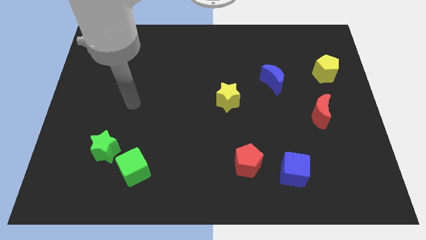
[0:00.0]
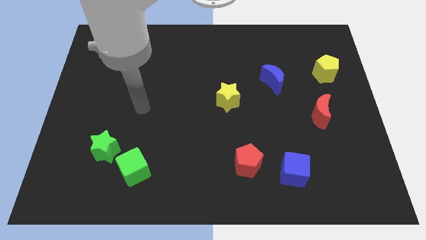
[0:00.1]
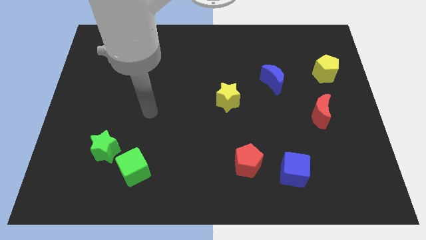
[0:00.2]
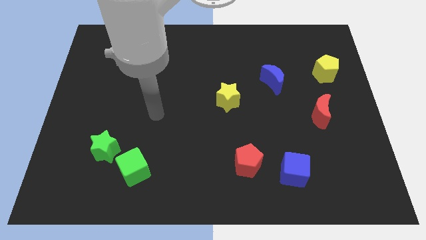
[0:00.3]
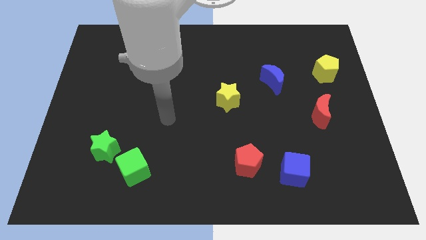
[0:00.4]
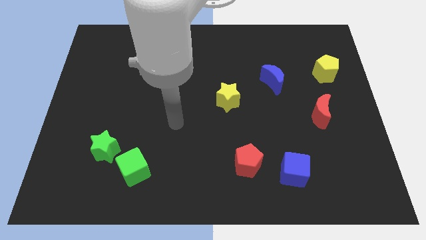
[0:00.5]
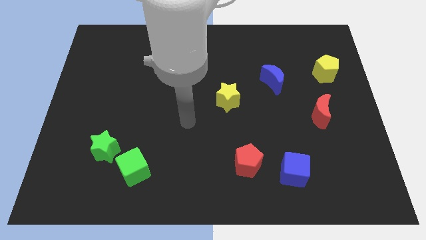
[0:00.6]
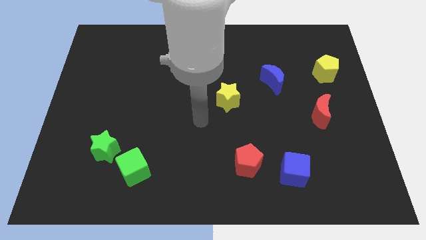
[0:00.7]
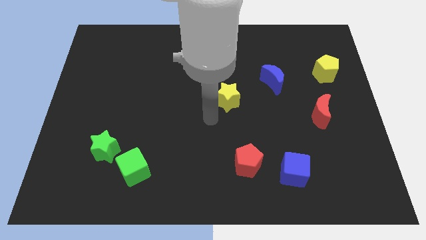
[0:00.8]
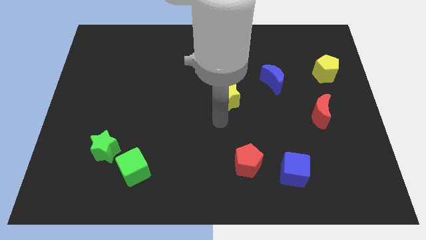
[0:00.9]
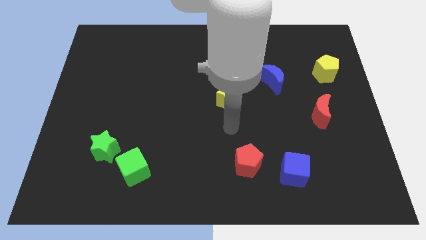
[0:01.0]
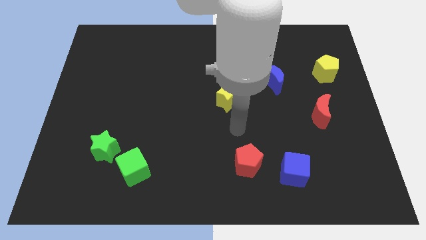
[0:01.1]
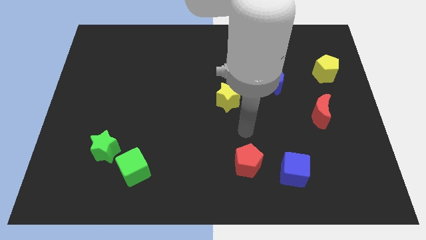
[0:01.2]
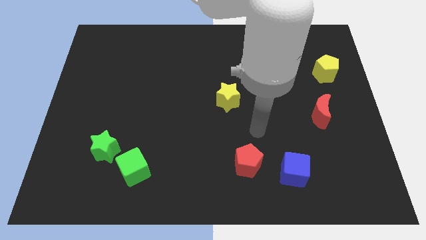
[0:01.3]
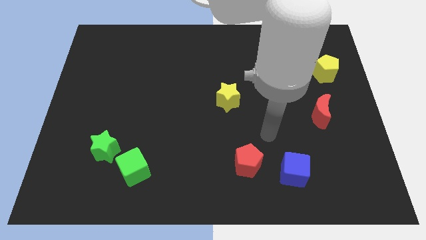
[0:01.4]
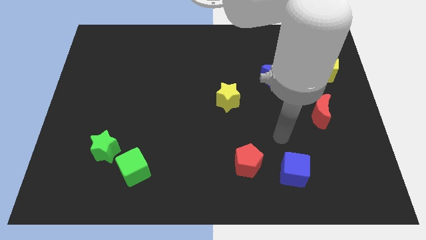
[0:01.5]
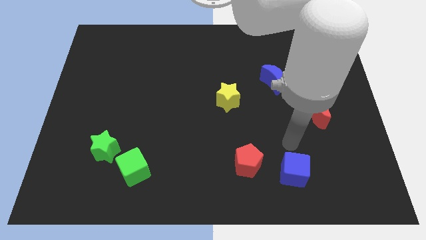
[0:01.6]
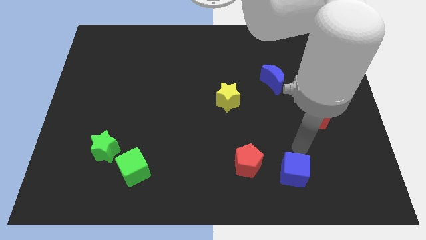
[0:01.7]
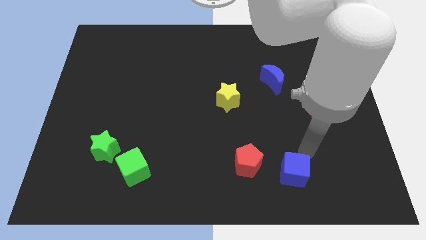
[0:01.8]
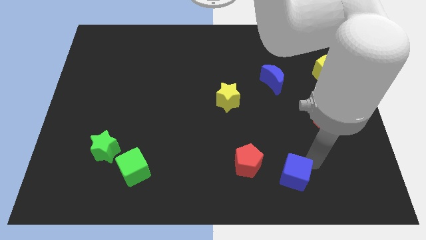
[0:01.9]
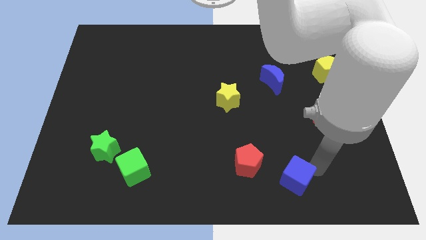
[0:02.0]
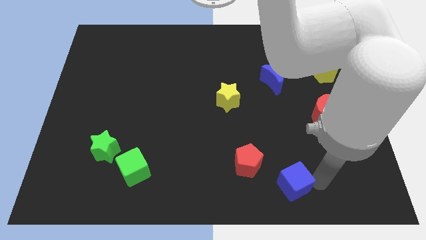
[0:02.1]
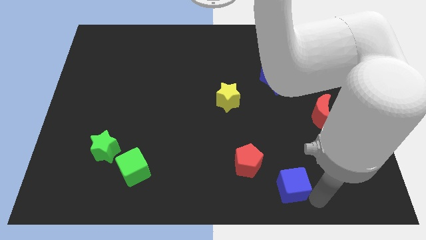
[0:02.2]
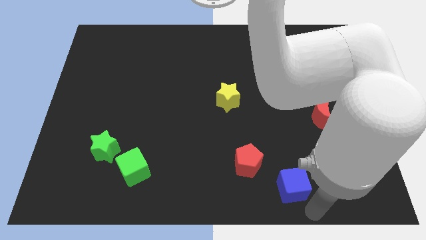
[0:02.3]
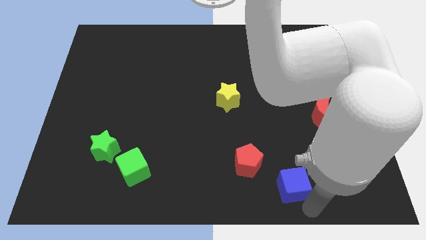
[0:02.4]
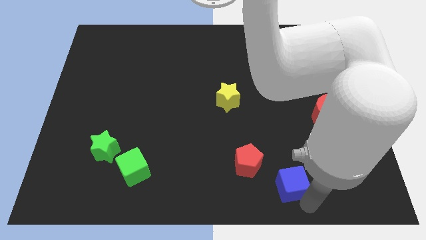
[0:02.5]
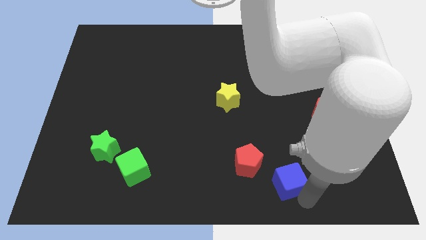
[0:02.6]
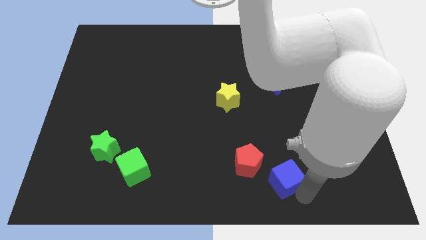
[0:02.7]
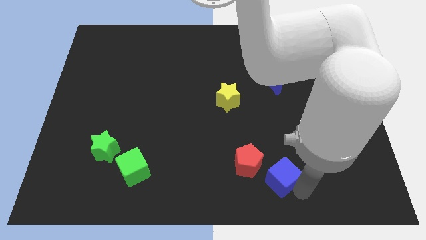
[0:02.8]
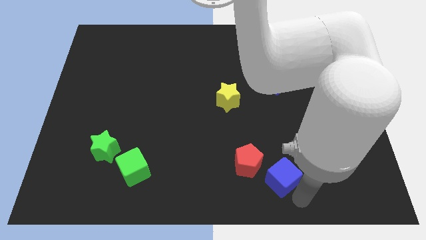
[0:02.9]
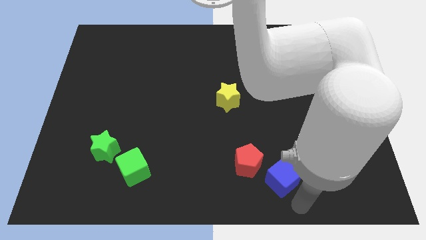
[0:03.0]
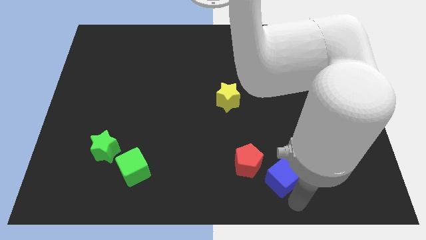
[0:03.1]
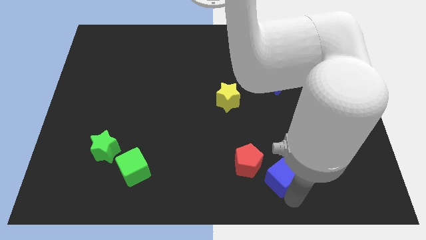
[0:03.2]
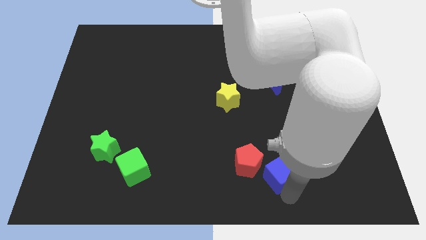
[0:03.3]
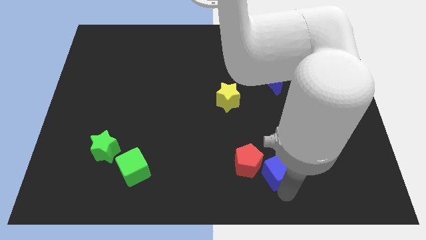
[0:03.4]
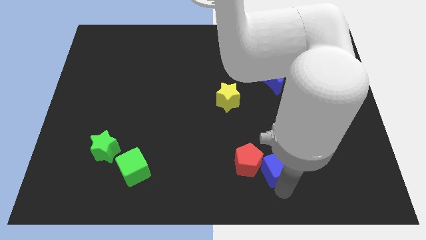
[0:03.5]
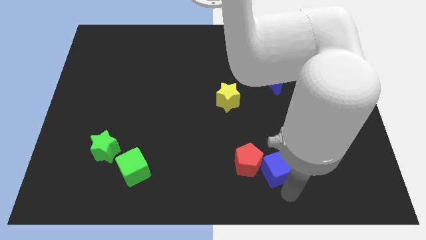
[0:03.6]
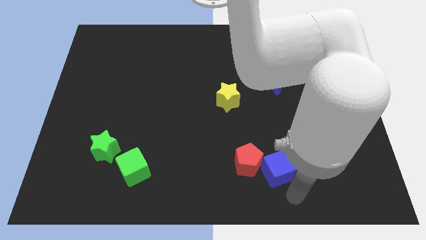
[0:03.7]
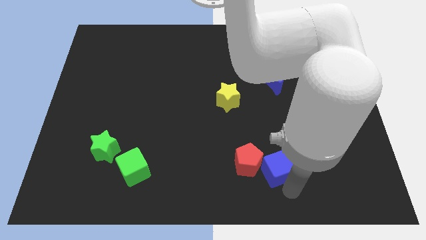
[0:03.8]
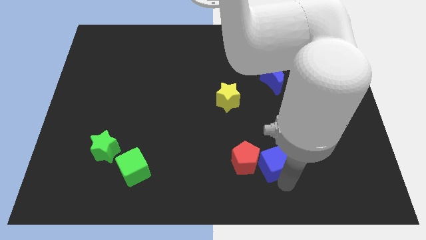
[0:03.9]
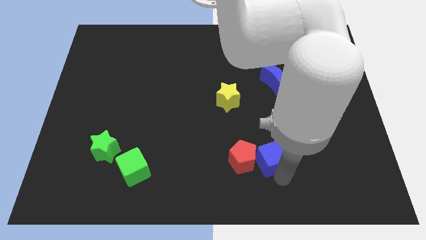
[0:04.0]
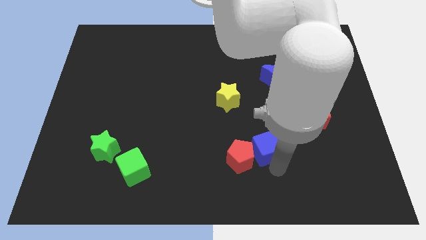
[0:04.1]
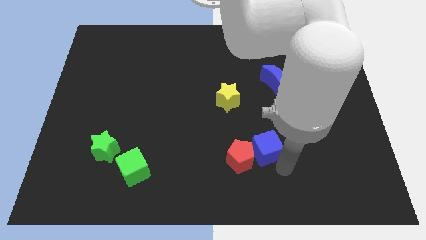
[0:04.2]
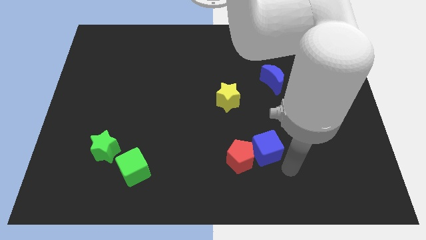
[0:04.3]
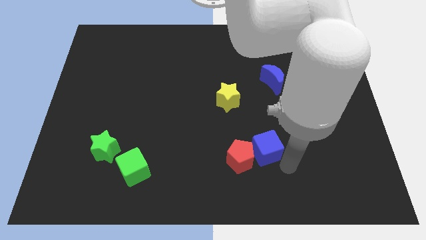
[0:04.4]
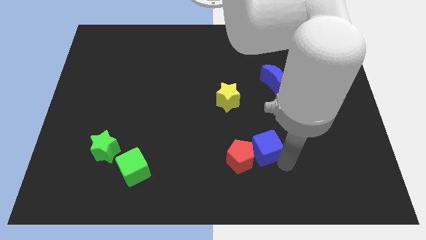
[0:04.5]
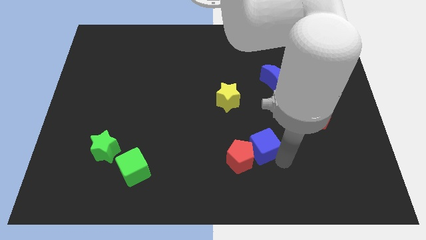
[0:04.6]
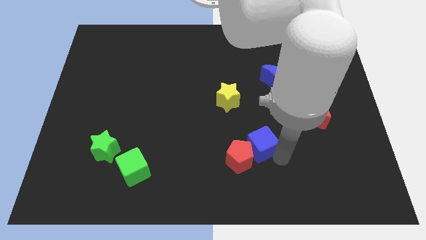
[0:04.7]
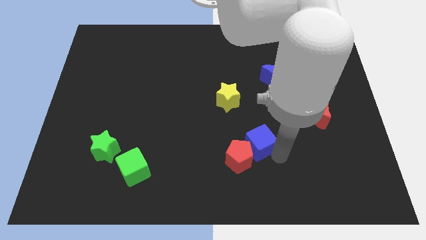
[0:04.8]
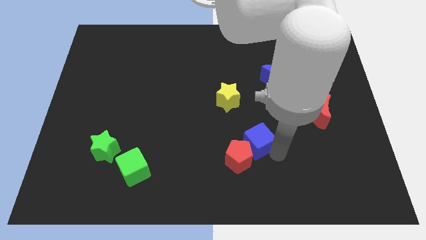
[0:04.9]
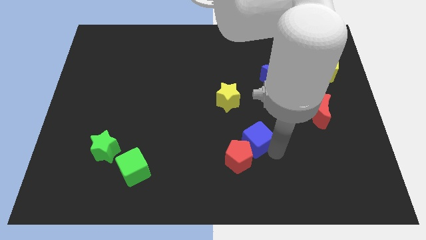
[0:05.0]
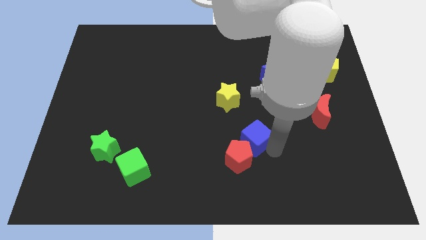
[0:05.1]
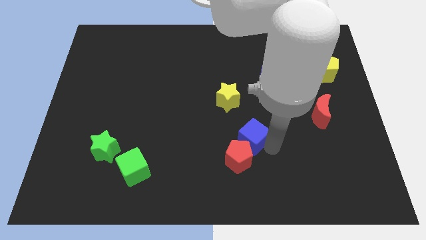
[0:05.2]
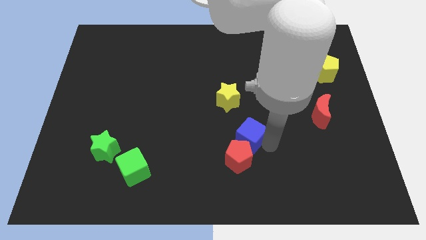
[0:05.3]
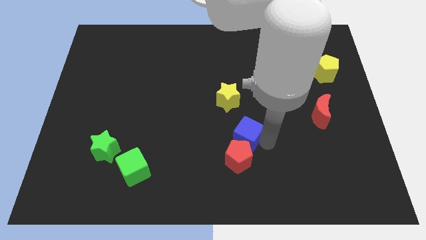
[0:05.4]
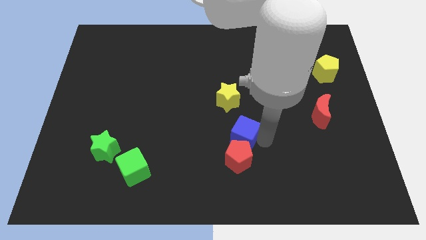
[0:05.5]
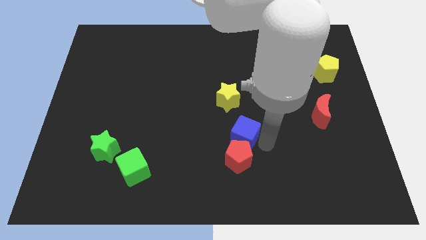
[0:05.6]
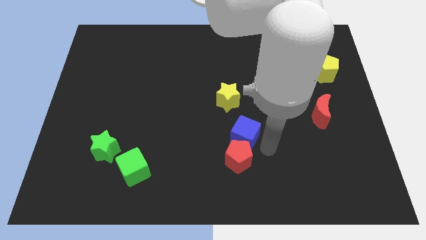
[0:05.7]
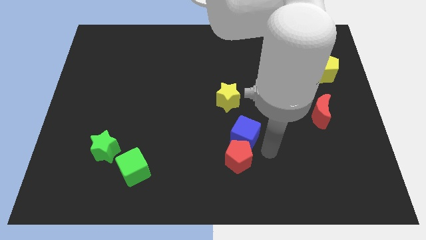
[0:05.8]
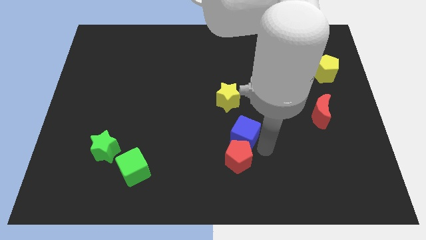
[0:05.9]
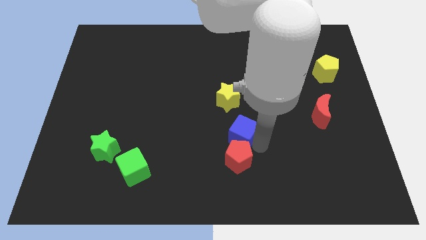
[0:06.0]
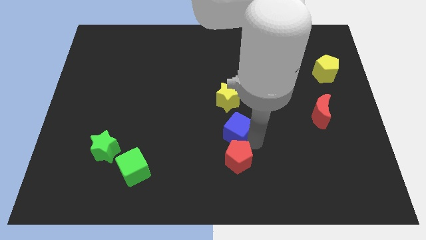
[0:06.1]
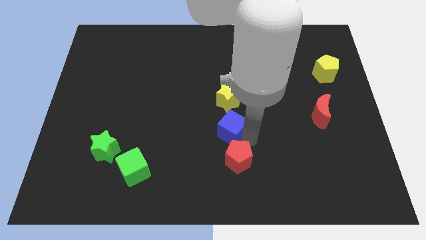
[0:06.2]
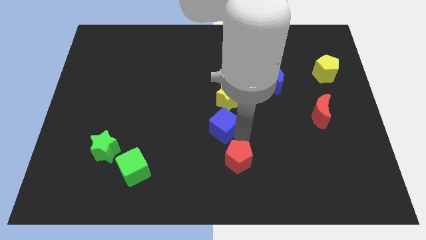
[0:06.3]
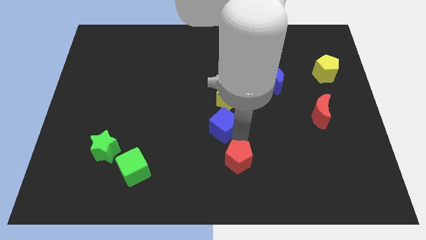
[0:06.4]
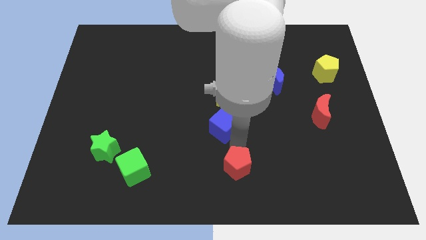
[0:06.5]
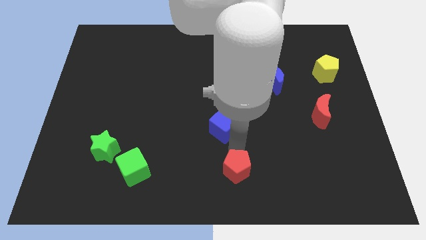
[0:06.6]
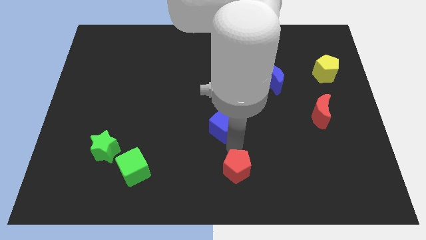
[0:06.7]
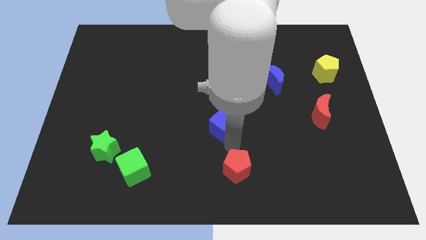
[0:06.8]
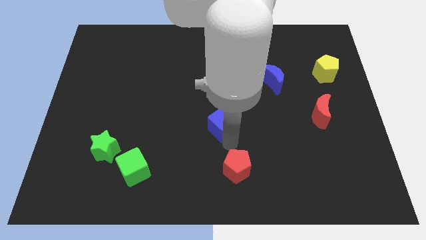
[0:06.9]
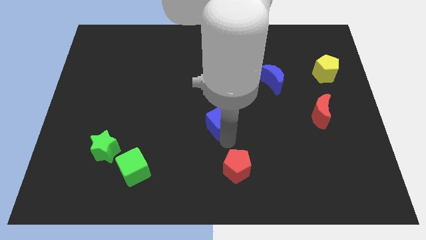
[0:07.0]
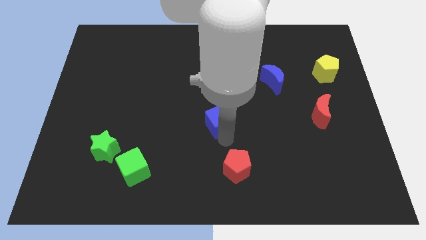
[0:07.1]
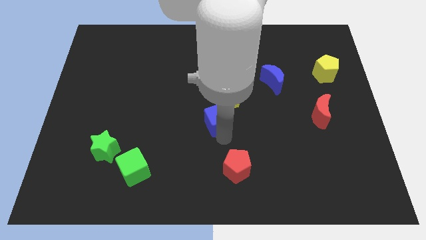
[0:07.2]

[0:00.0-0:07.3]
slide the blue cube up and then to the left

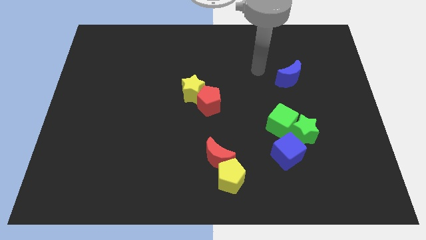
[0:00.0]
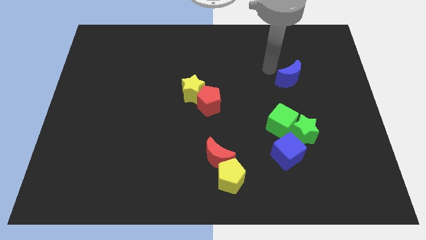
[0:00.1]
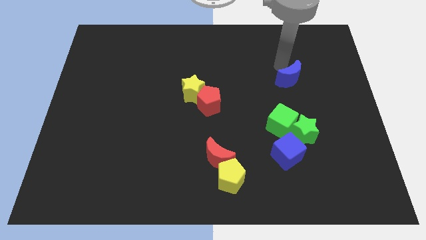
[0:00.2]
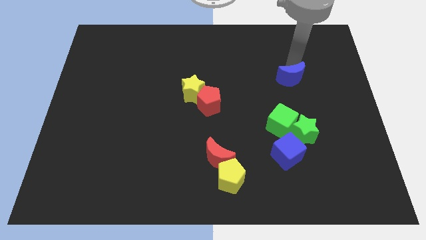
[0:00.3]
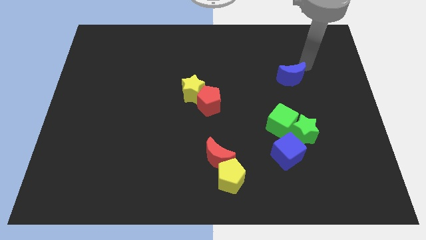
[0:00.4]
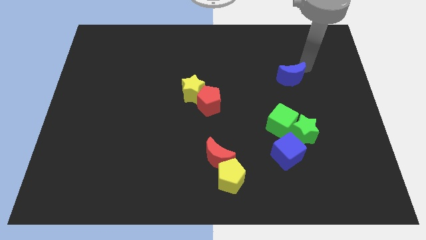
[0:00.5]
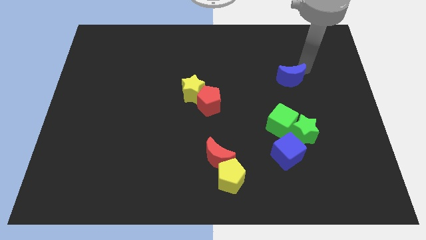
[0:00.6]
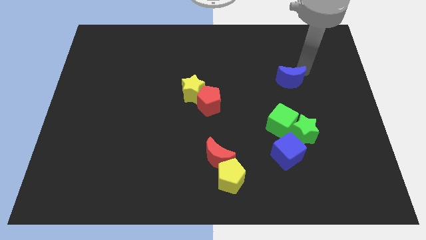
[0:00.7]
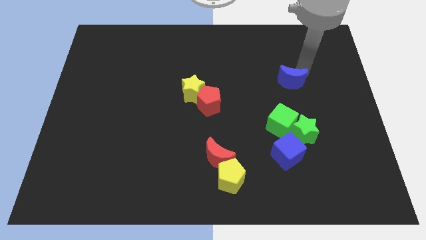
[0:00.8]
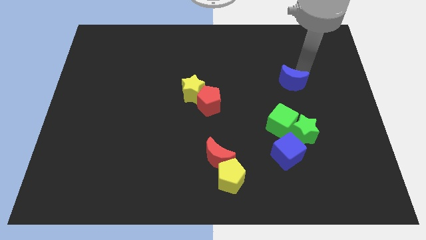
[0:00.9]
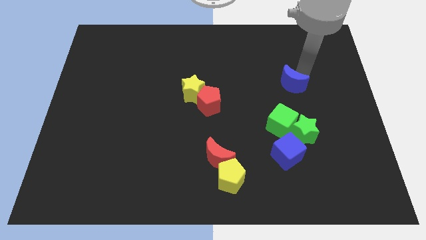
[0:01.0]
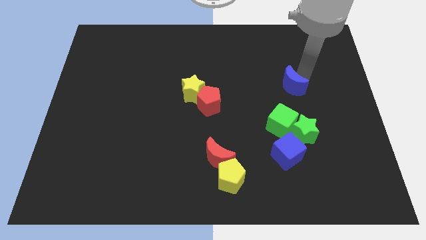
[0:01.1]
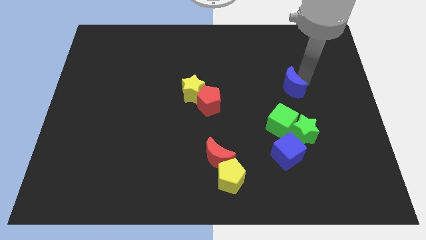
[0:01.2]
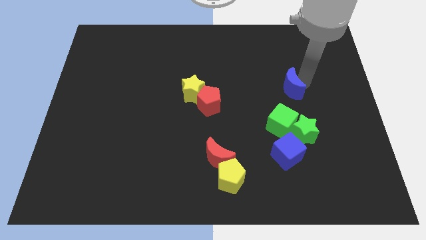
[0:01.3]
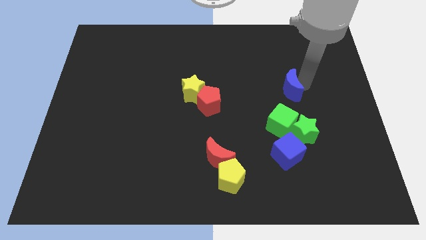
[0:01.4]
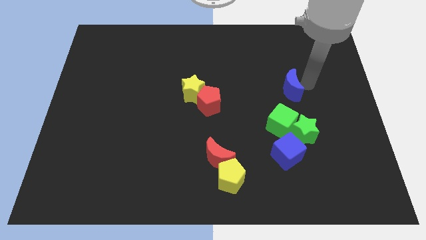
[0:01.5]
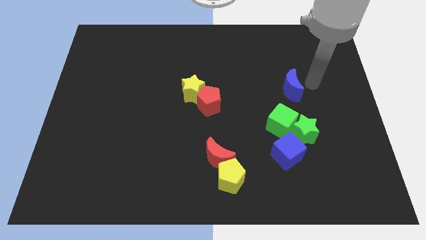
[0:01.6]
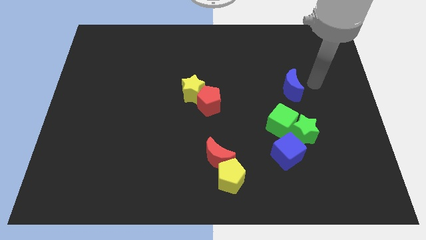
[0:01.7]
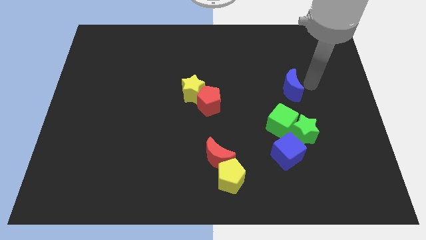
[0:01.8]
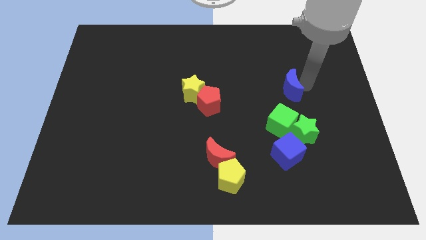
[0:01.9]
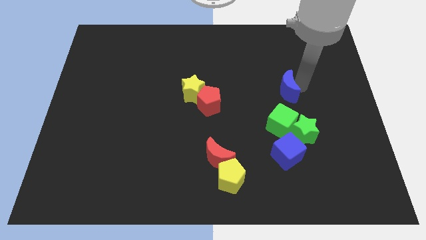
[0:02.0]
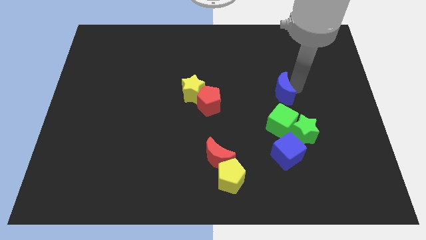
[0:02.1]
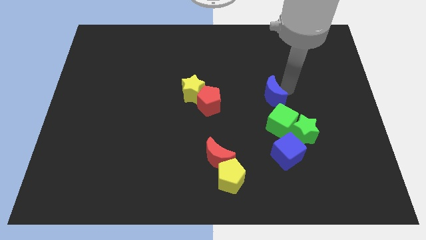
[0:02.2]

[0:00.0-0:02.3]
push the blue moon a little diagonally downwards and to the left
